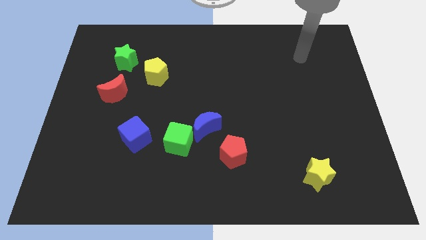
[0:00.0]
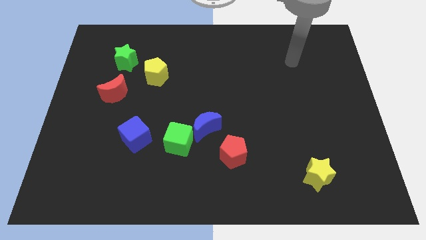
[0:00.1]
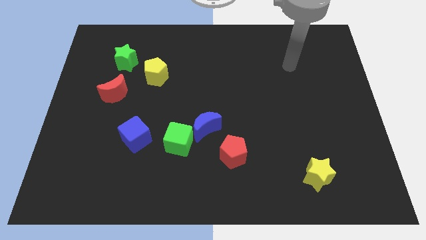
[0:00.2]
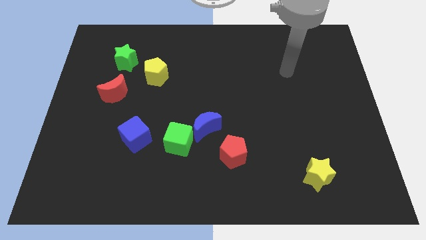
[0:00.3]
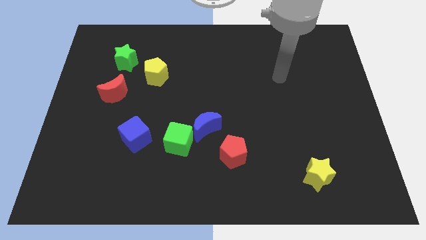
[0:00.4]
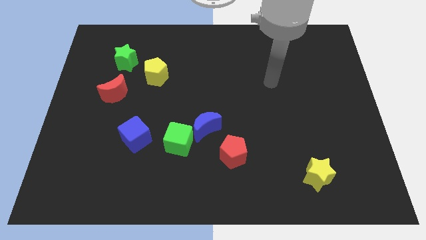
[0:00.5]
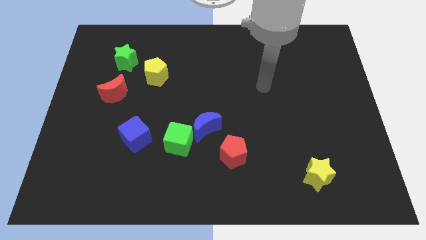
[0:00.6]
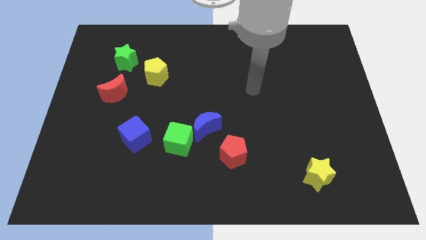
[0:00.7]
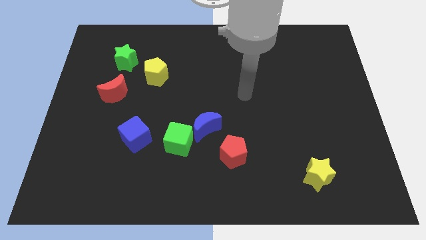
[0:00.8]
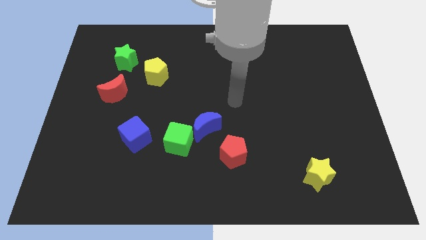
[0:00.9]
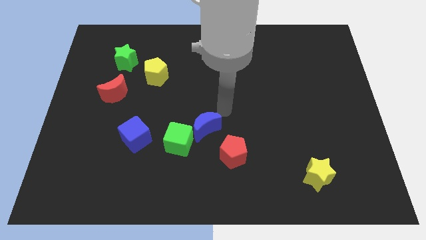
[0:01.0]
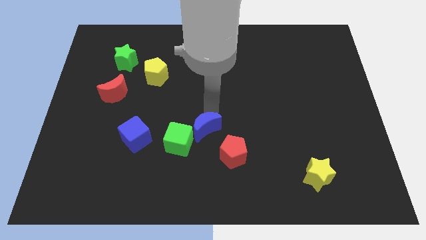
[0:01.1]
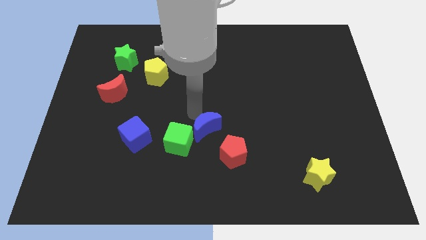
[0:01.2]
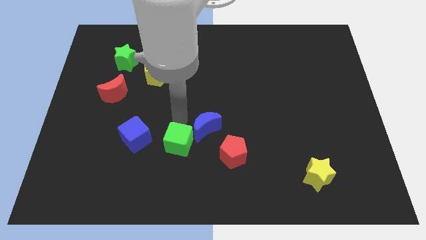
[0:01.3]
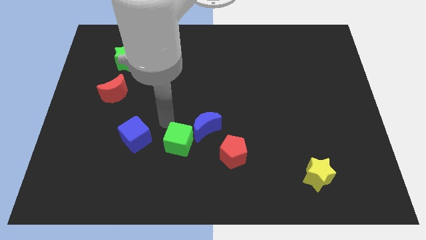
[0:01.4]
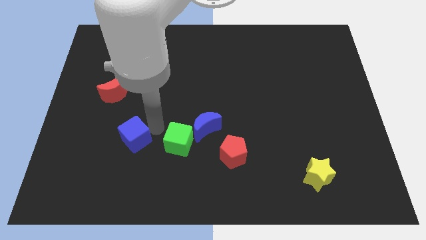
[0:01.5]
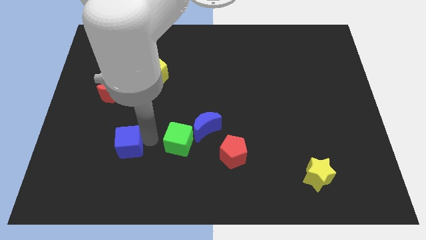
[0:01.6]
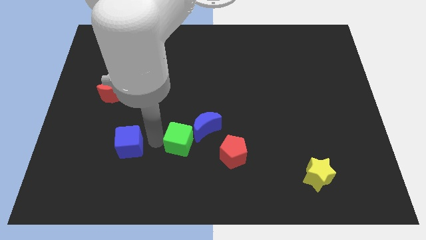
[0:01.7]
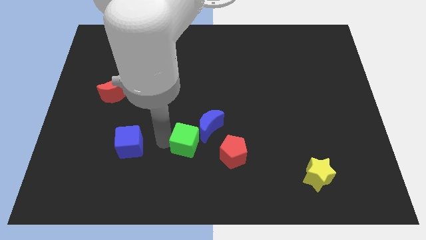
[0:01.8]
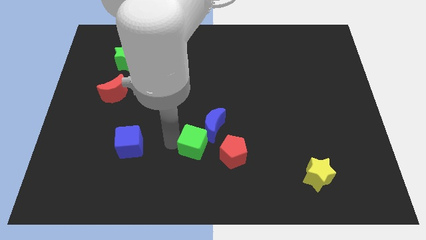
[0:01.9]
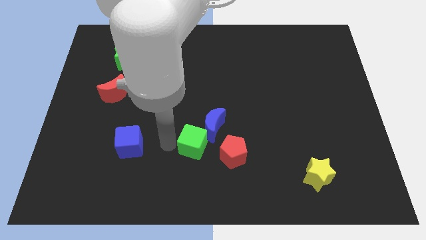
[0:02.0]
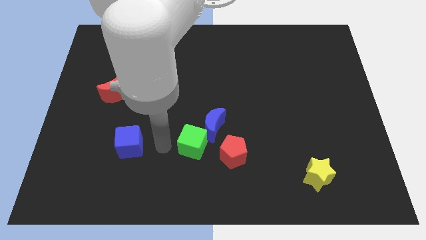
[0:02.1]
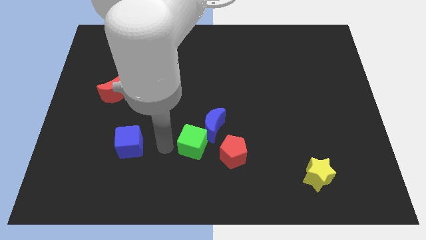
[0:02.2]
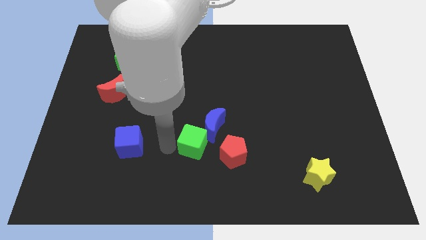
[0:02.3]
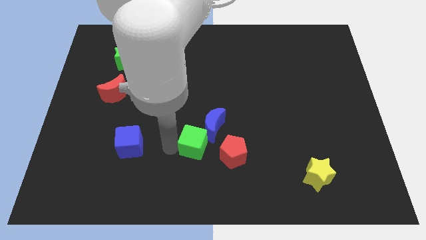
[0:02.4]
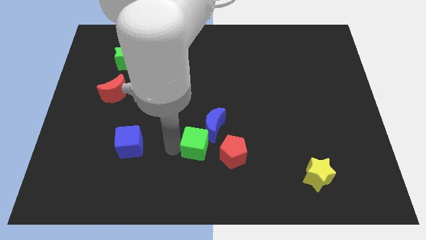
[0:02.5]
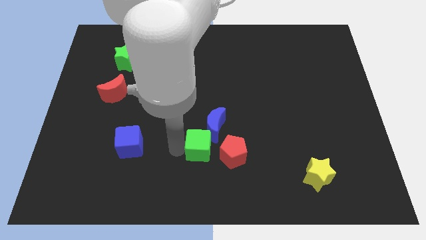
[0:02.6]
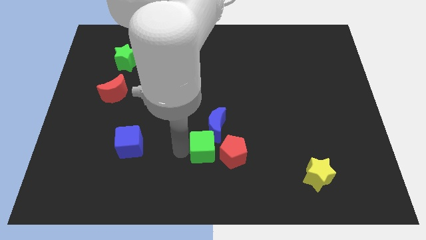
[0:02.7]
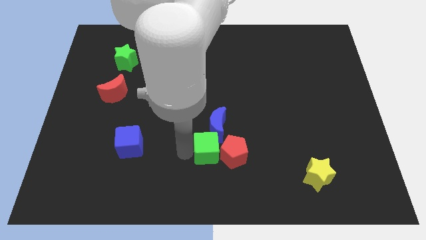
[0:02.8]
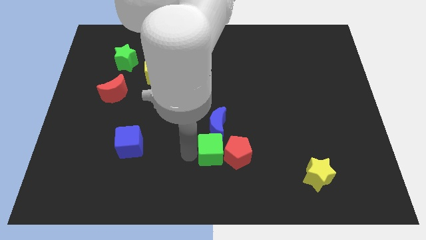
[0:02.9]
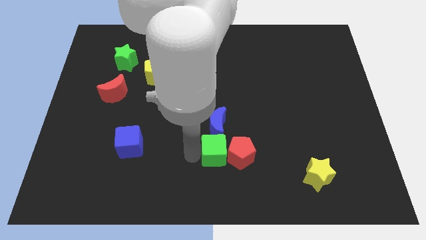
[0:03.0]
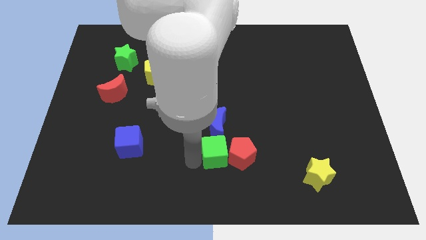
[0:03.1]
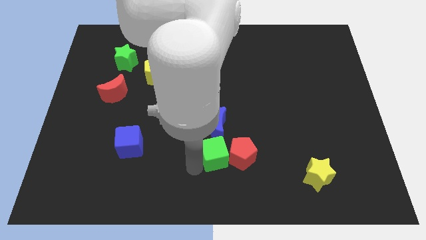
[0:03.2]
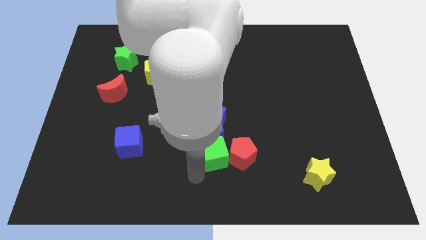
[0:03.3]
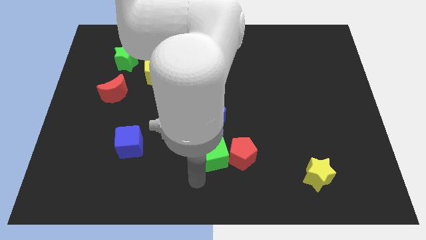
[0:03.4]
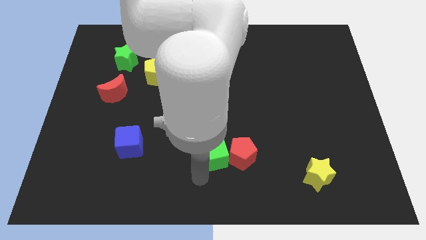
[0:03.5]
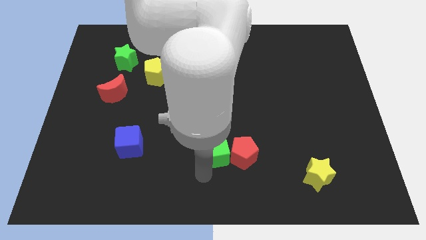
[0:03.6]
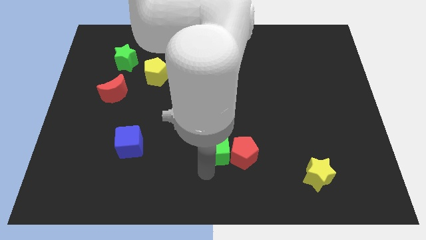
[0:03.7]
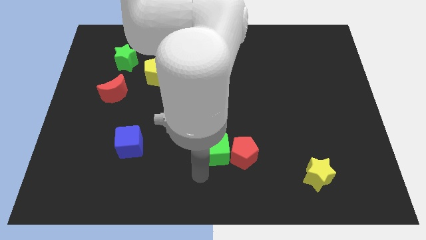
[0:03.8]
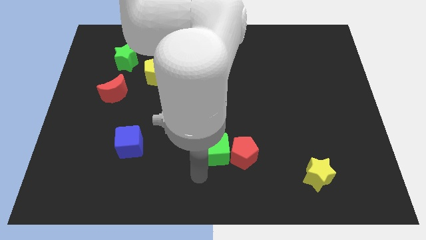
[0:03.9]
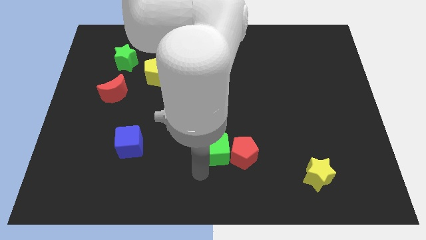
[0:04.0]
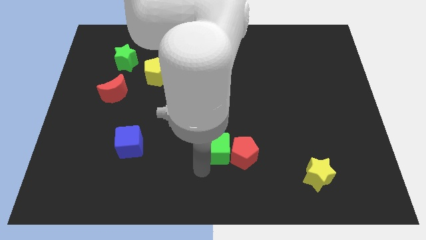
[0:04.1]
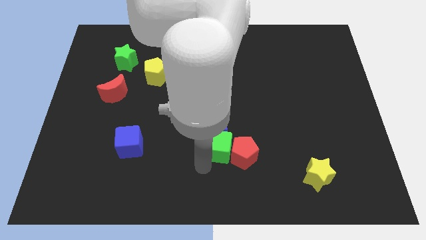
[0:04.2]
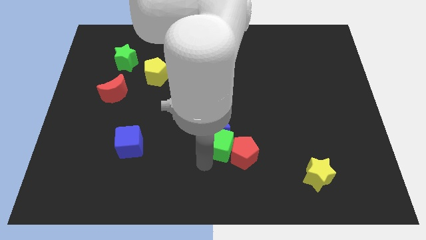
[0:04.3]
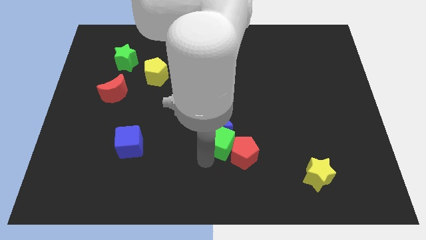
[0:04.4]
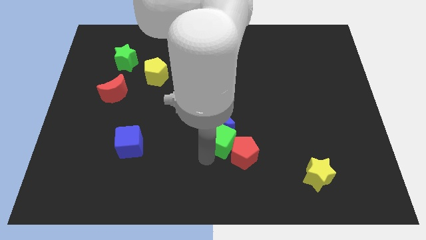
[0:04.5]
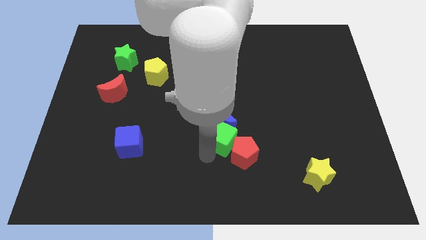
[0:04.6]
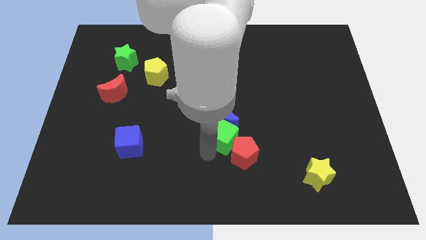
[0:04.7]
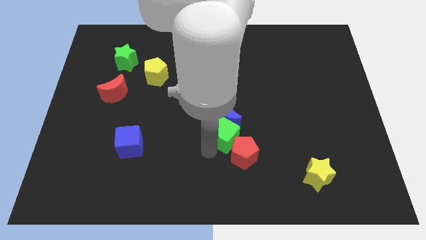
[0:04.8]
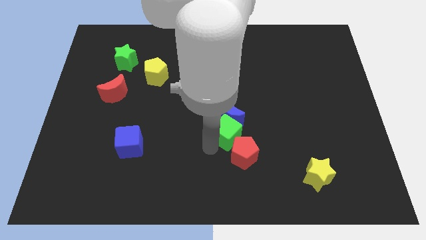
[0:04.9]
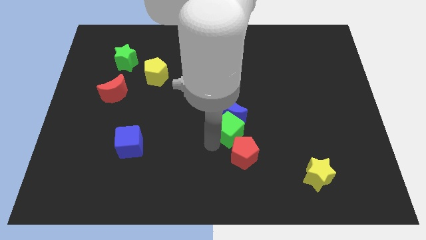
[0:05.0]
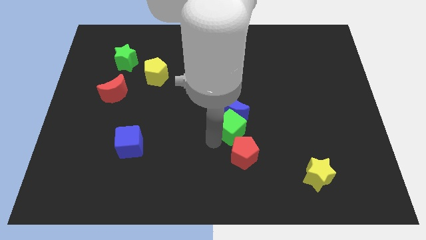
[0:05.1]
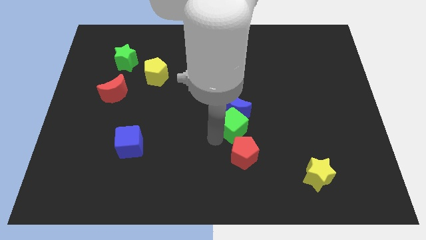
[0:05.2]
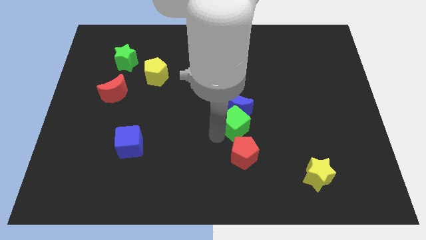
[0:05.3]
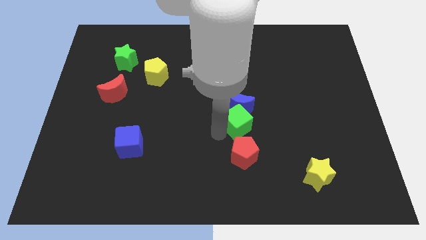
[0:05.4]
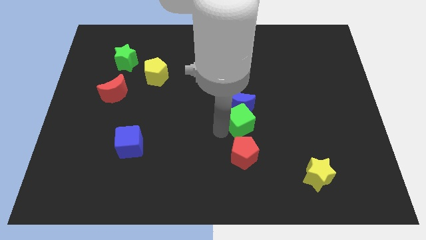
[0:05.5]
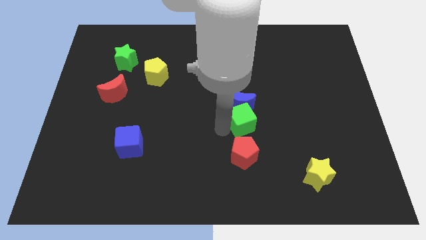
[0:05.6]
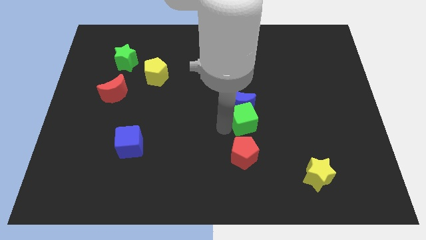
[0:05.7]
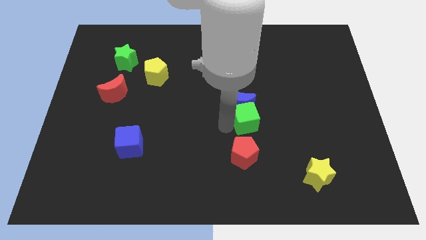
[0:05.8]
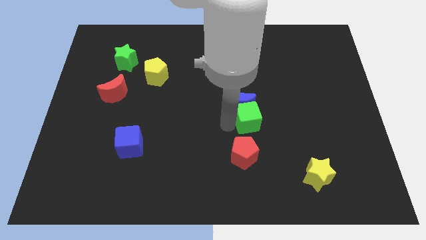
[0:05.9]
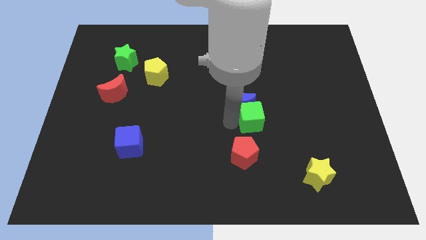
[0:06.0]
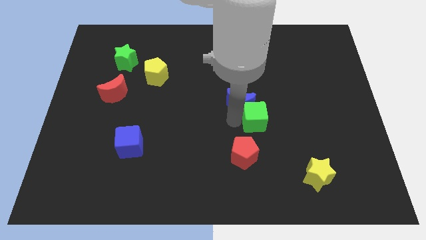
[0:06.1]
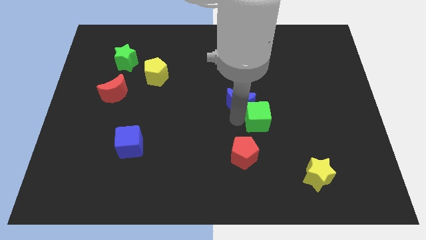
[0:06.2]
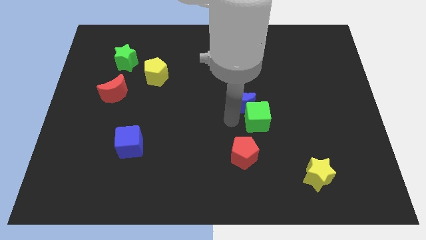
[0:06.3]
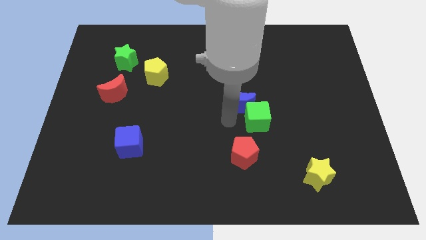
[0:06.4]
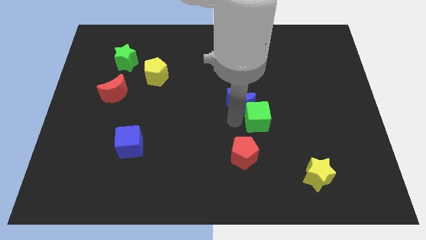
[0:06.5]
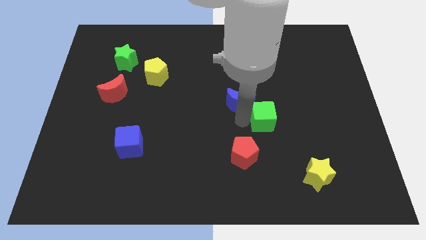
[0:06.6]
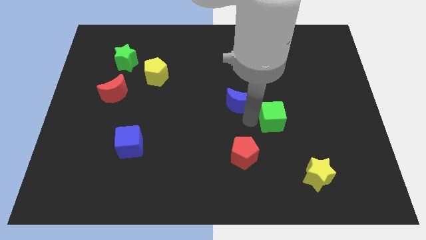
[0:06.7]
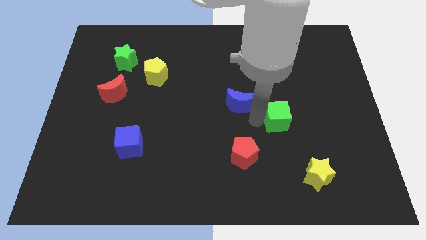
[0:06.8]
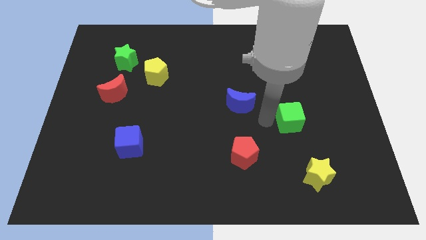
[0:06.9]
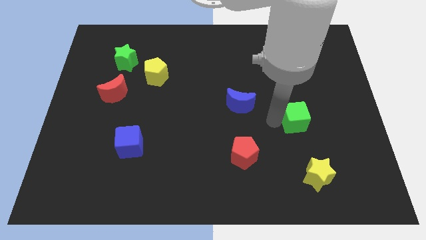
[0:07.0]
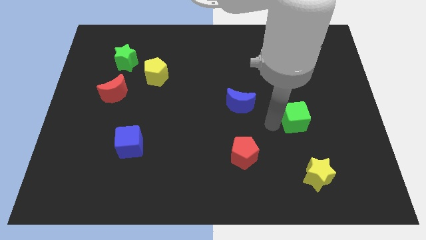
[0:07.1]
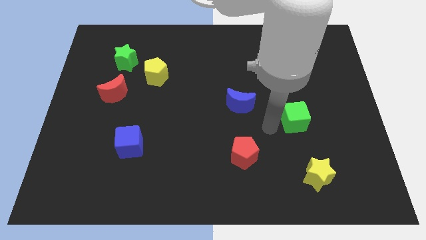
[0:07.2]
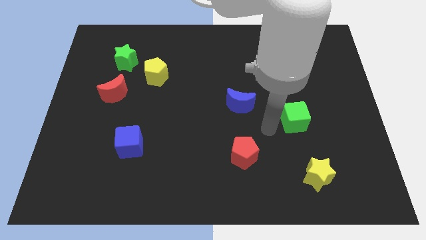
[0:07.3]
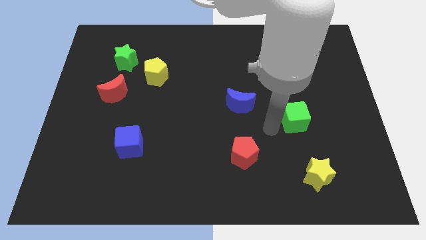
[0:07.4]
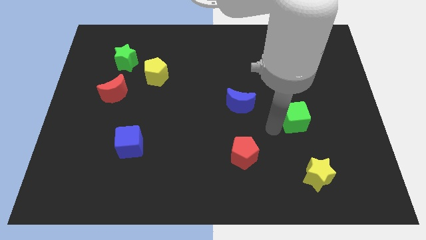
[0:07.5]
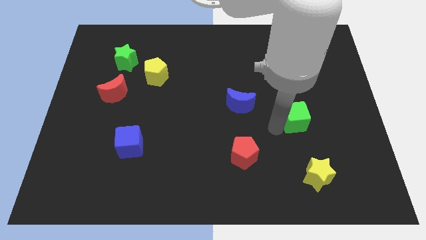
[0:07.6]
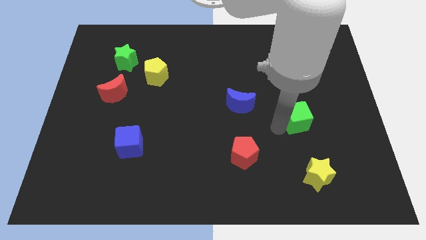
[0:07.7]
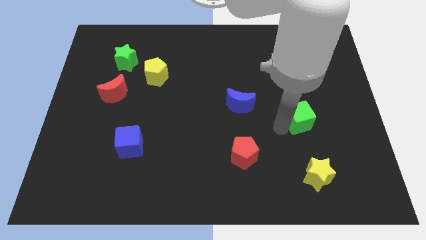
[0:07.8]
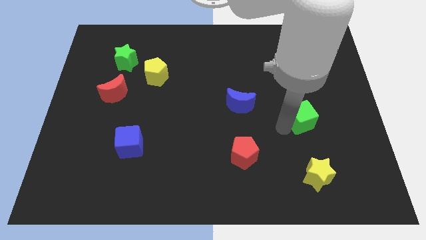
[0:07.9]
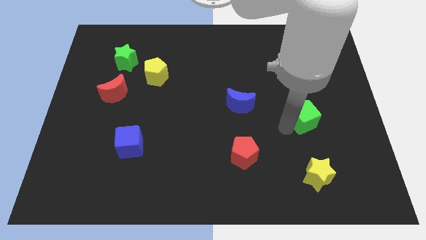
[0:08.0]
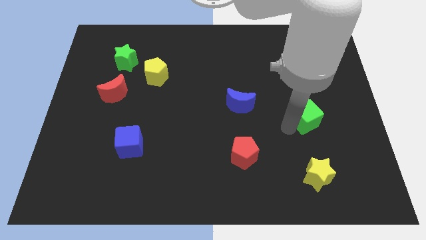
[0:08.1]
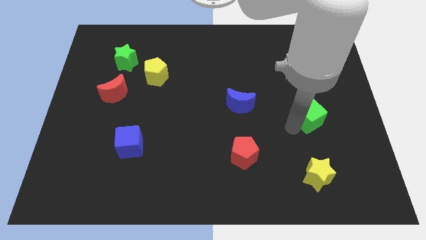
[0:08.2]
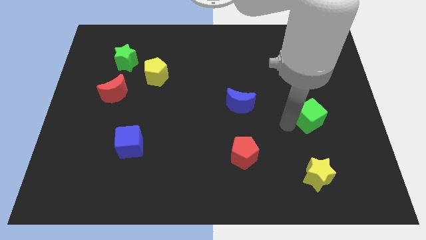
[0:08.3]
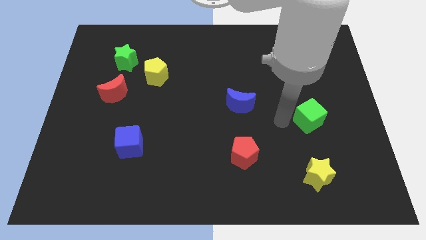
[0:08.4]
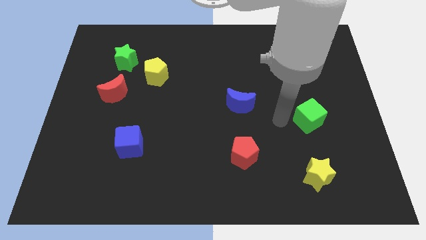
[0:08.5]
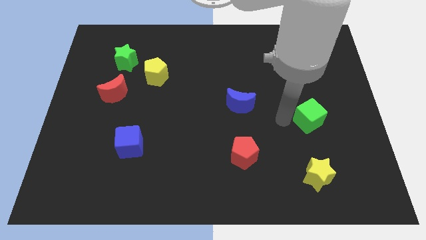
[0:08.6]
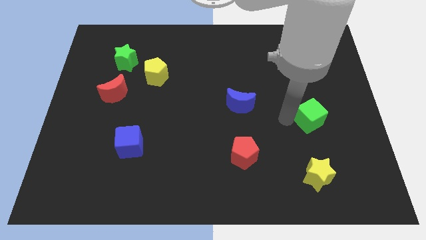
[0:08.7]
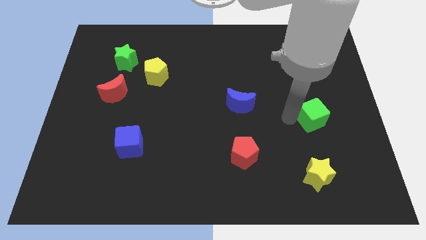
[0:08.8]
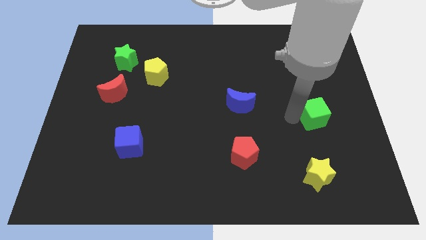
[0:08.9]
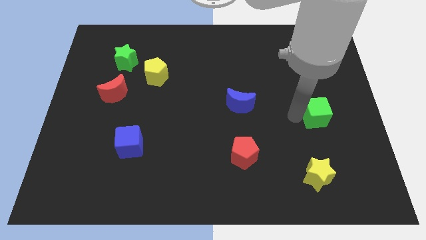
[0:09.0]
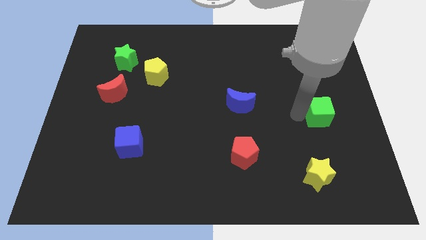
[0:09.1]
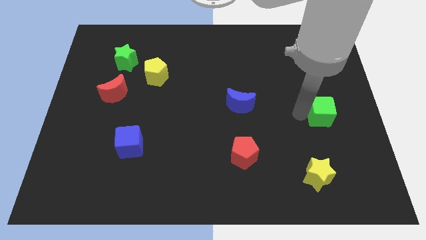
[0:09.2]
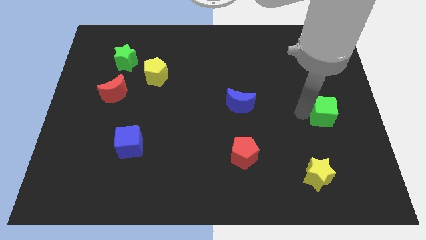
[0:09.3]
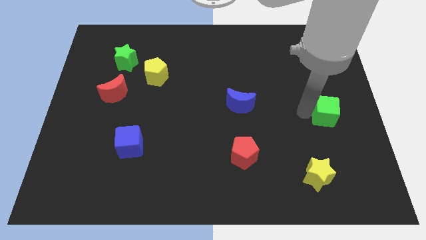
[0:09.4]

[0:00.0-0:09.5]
slide the green cube to the right side
